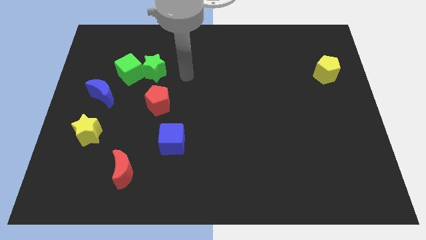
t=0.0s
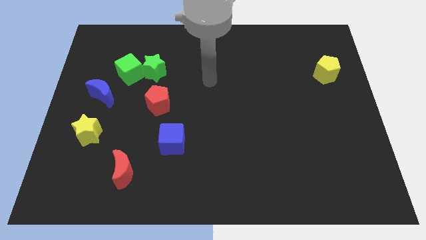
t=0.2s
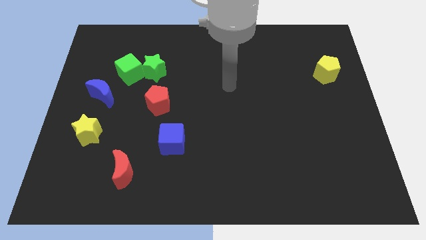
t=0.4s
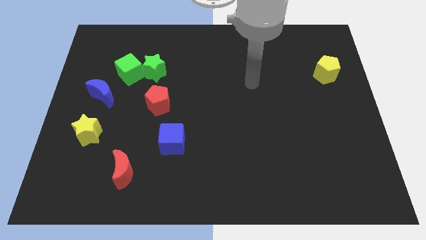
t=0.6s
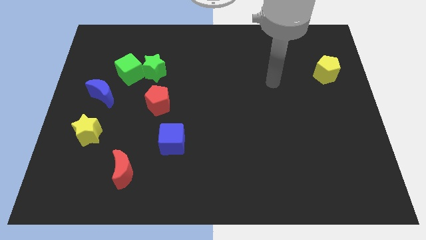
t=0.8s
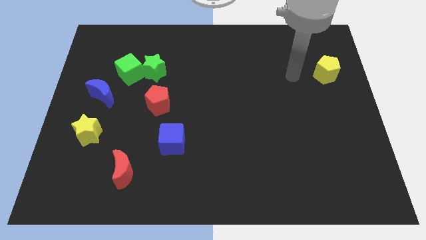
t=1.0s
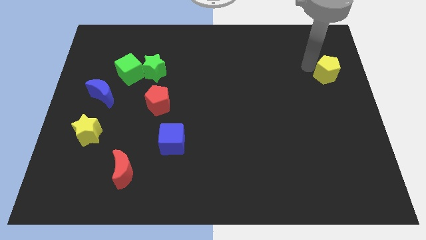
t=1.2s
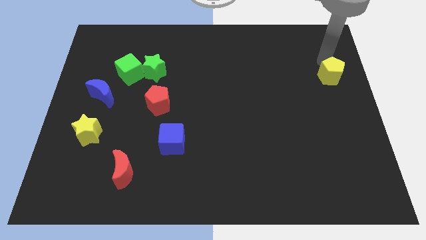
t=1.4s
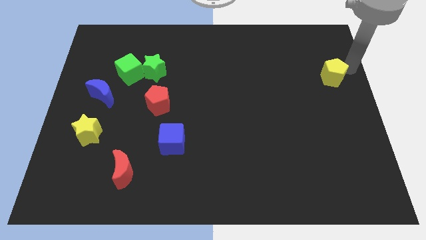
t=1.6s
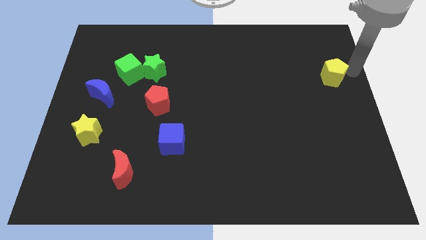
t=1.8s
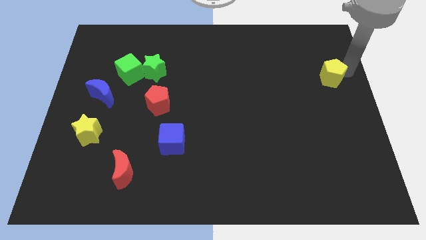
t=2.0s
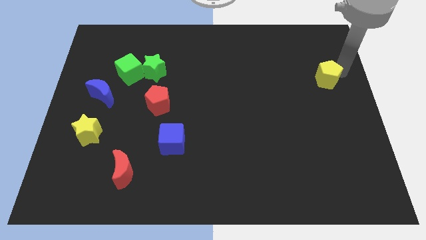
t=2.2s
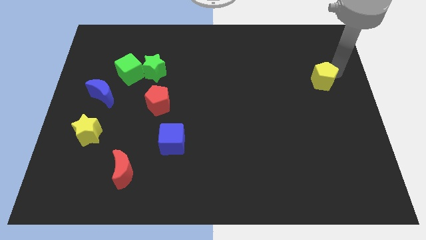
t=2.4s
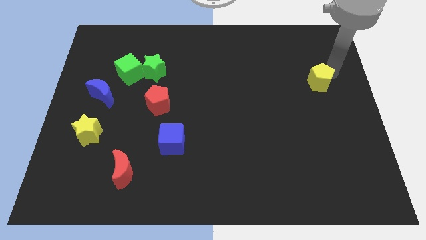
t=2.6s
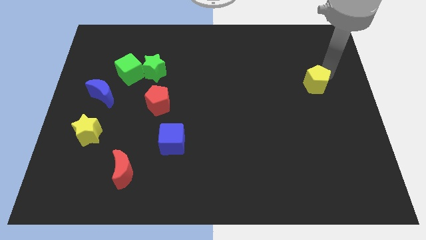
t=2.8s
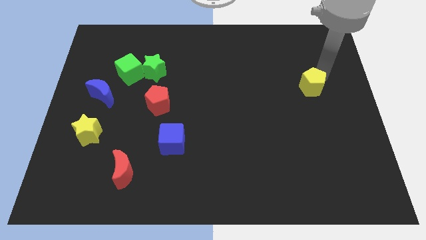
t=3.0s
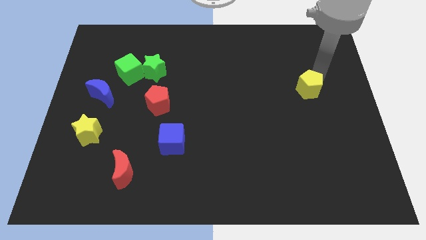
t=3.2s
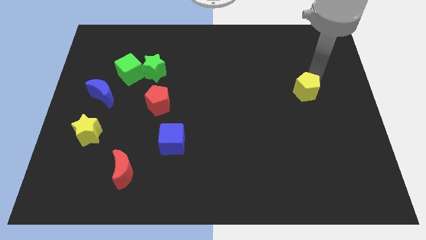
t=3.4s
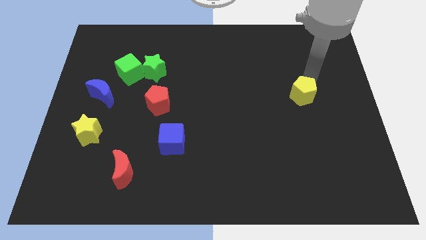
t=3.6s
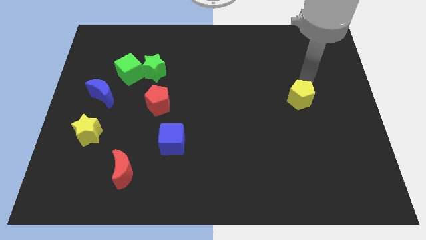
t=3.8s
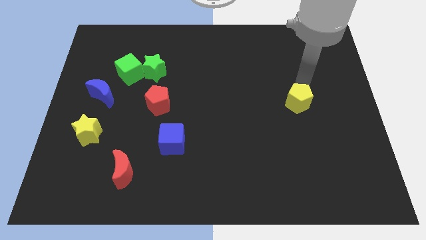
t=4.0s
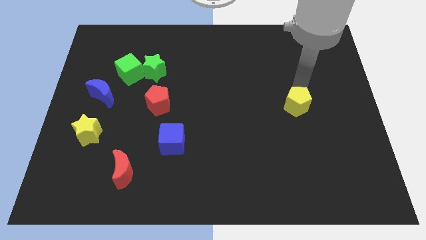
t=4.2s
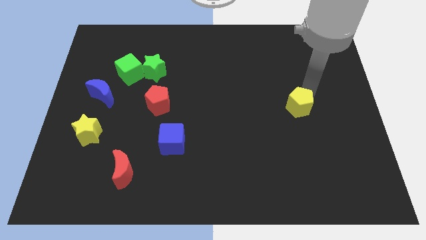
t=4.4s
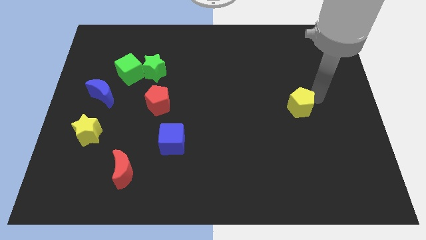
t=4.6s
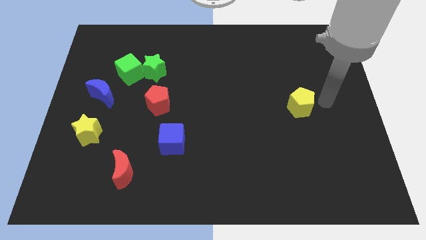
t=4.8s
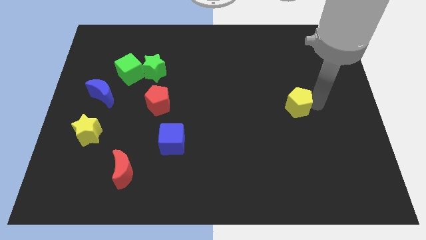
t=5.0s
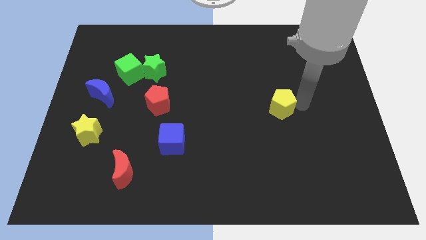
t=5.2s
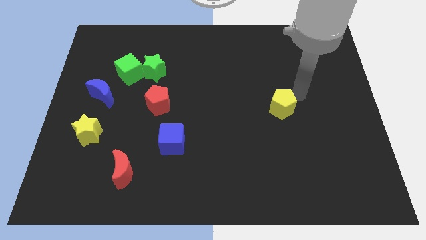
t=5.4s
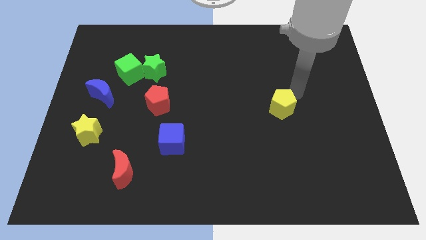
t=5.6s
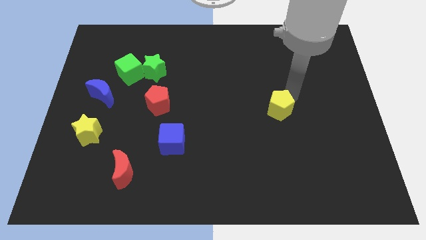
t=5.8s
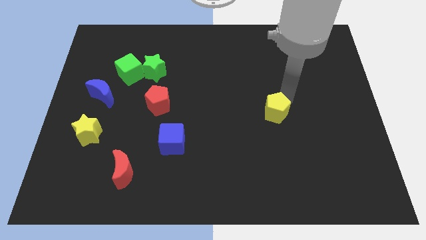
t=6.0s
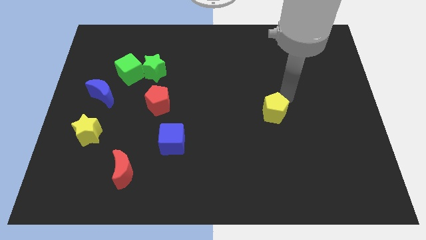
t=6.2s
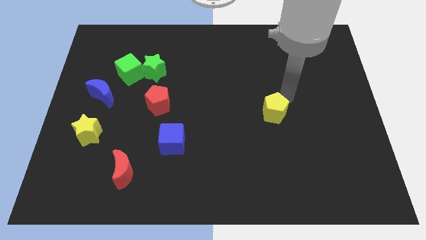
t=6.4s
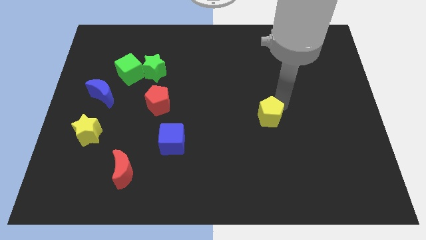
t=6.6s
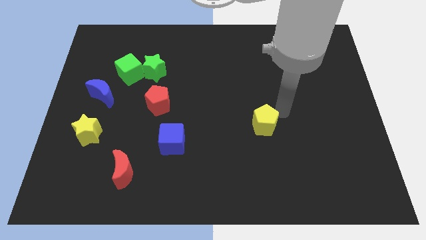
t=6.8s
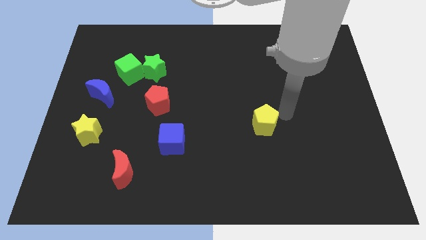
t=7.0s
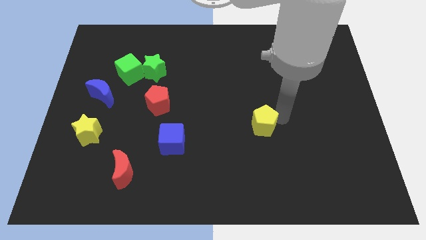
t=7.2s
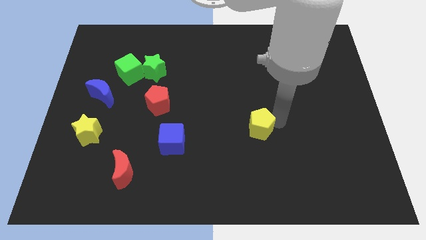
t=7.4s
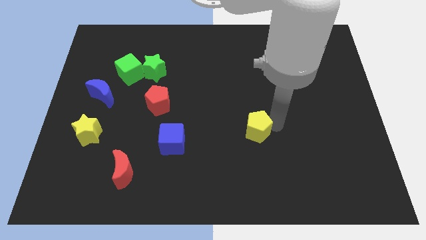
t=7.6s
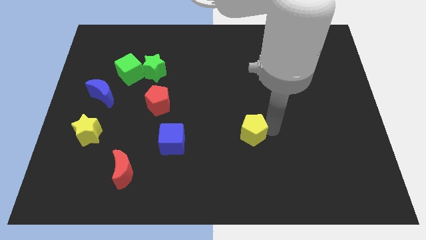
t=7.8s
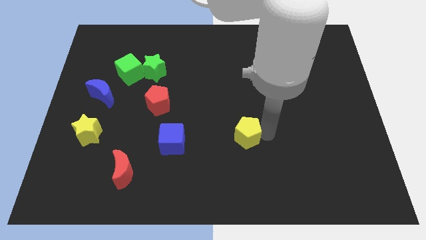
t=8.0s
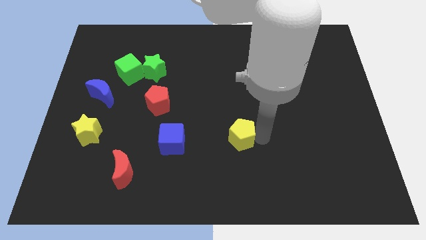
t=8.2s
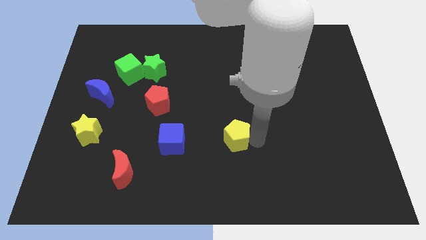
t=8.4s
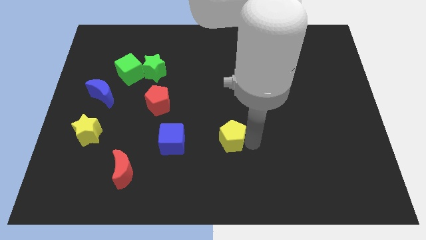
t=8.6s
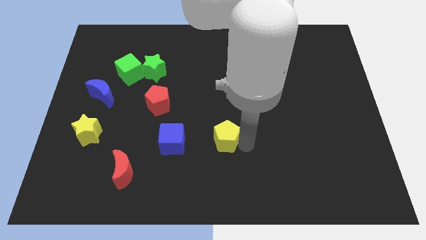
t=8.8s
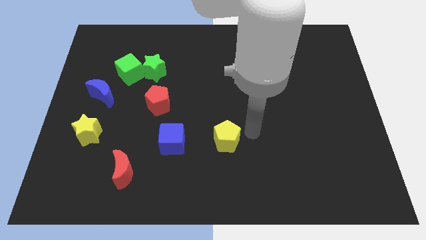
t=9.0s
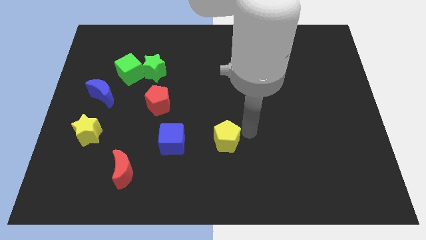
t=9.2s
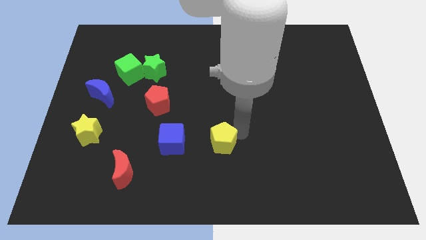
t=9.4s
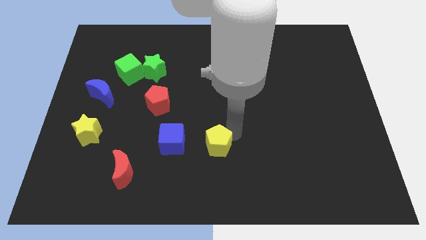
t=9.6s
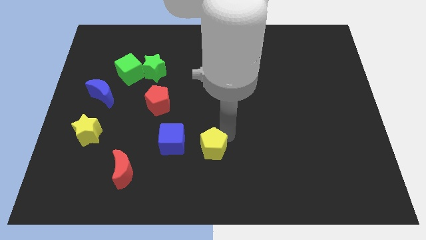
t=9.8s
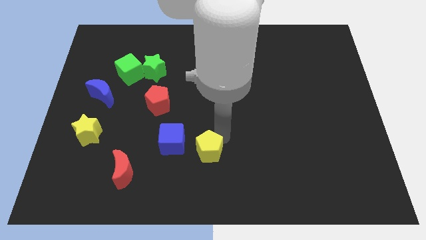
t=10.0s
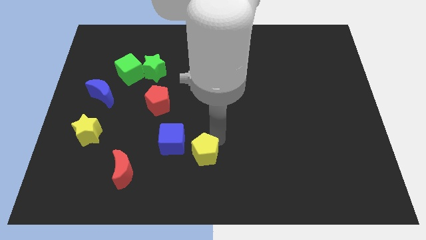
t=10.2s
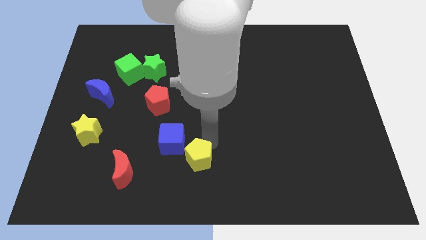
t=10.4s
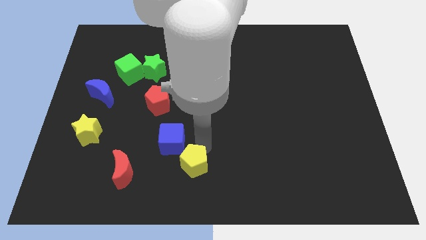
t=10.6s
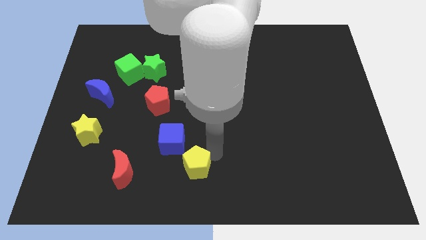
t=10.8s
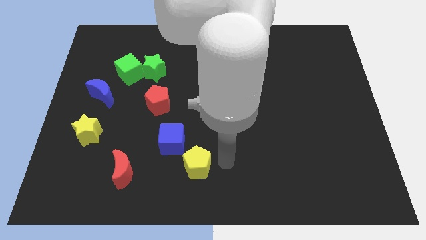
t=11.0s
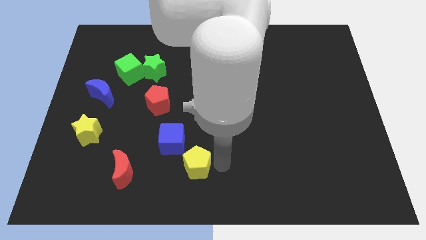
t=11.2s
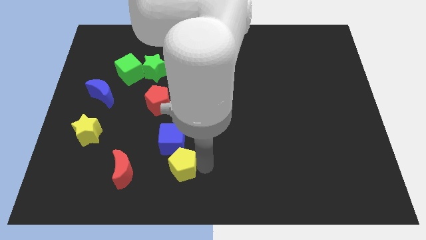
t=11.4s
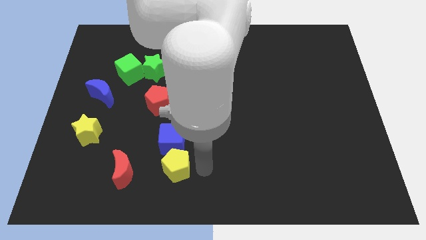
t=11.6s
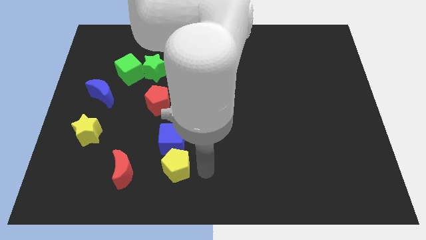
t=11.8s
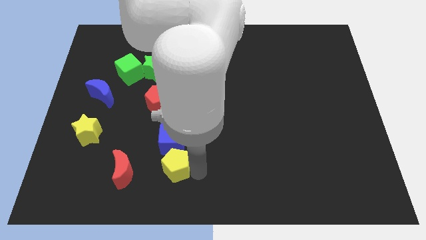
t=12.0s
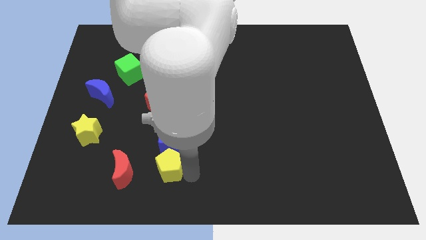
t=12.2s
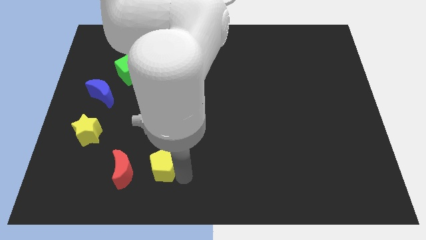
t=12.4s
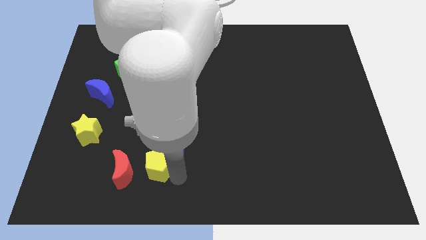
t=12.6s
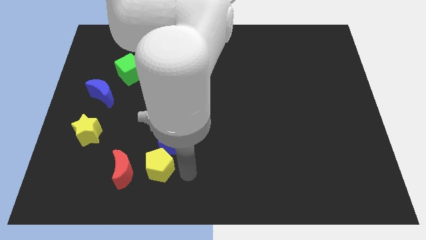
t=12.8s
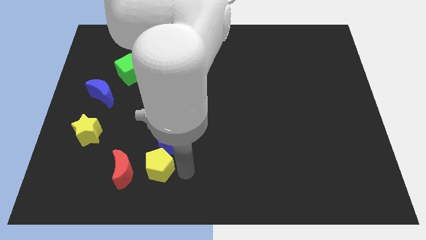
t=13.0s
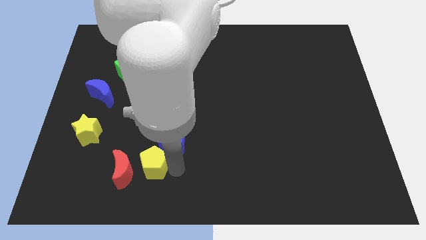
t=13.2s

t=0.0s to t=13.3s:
push the yellow pentagon towards the red moon

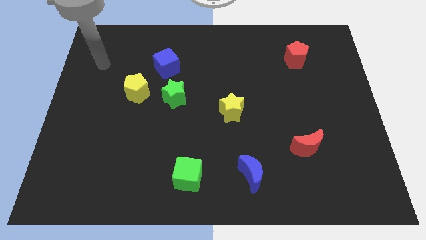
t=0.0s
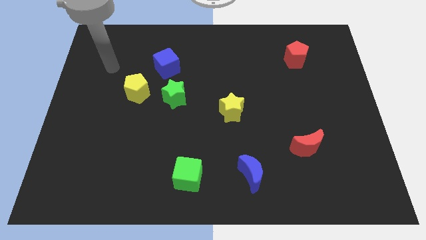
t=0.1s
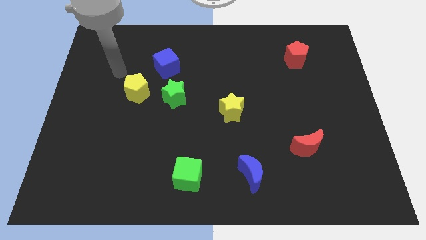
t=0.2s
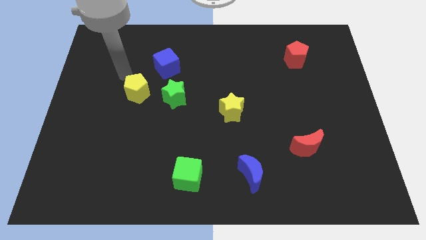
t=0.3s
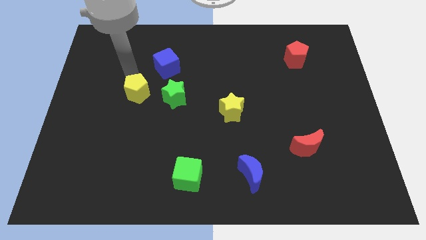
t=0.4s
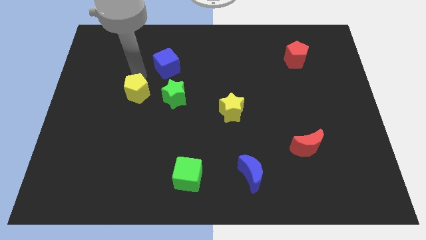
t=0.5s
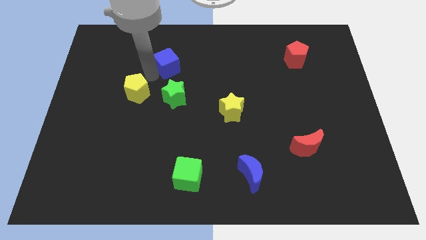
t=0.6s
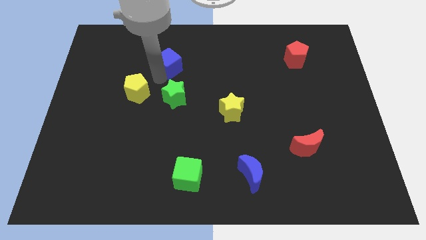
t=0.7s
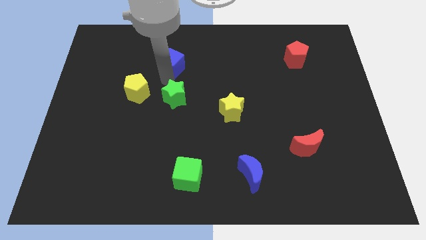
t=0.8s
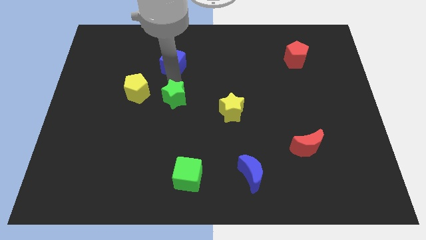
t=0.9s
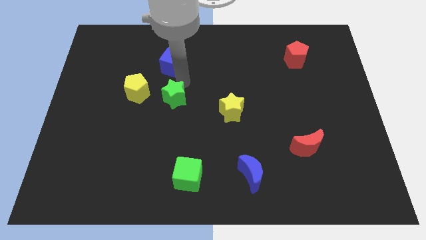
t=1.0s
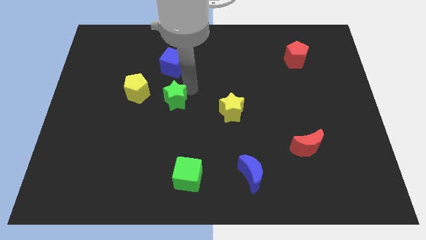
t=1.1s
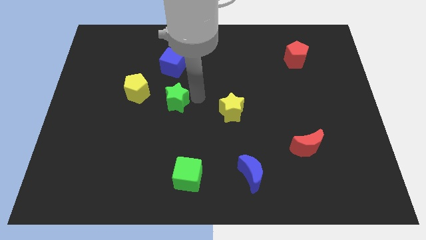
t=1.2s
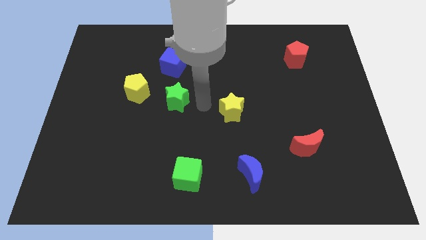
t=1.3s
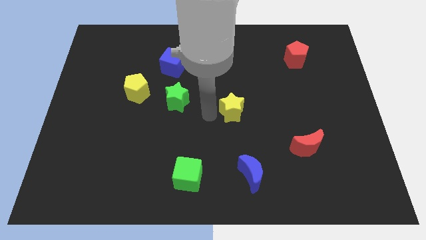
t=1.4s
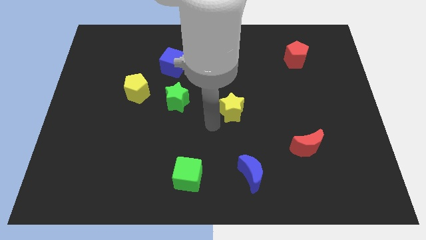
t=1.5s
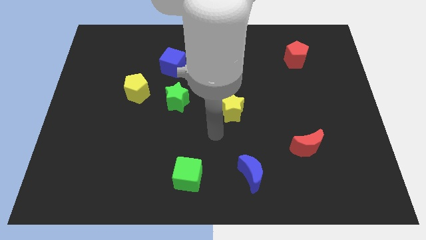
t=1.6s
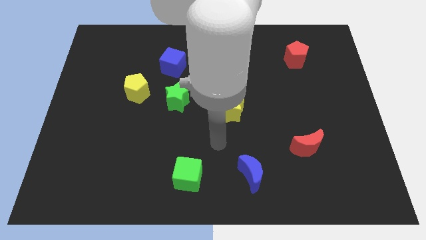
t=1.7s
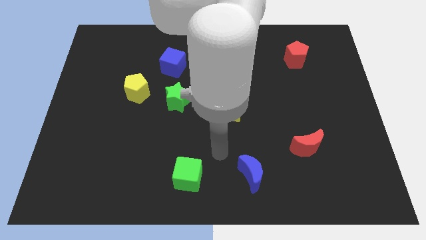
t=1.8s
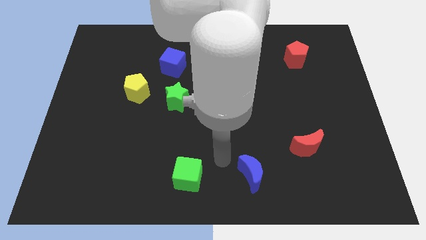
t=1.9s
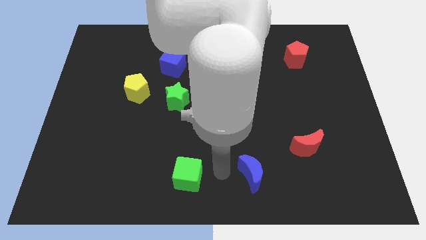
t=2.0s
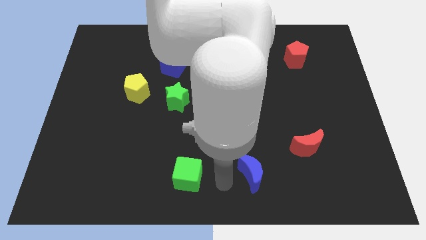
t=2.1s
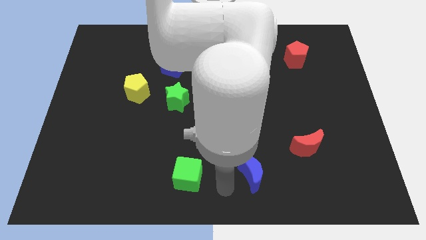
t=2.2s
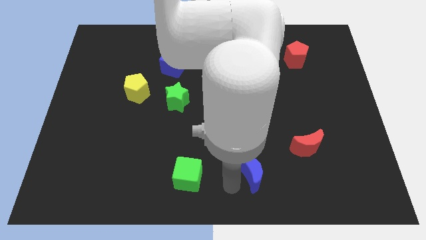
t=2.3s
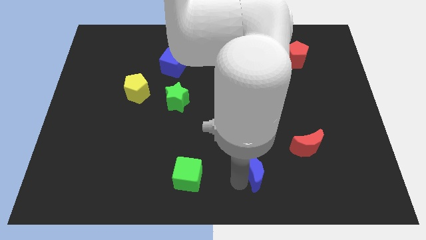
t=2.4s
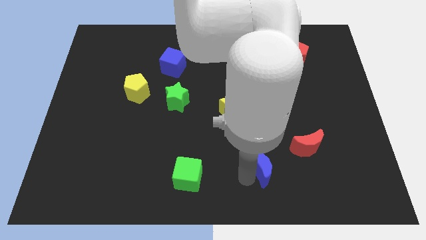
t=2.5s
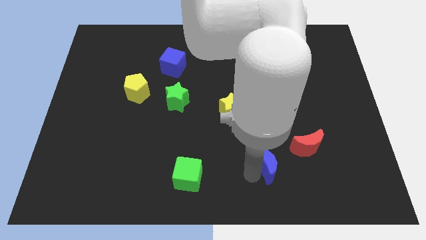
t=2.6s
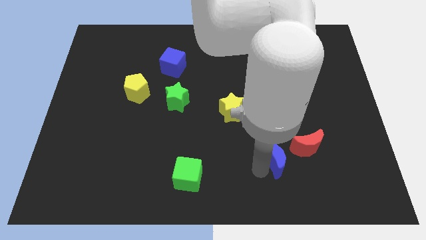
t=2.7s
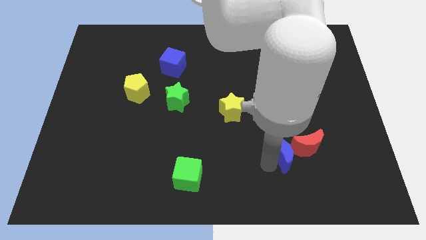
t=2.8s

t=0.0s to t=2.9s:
push the blue moon next to the red moon
